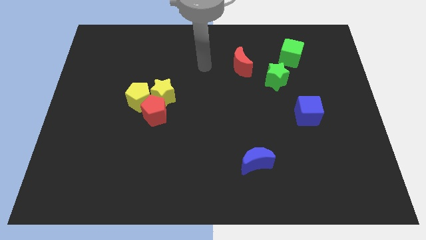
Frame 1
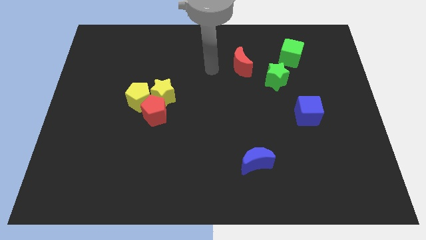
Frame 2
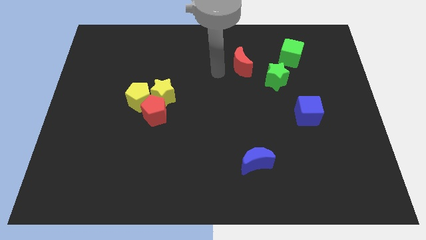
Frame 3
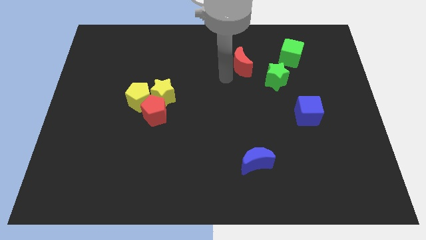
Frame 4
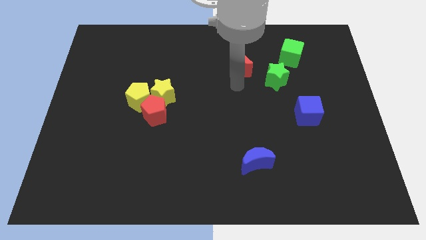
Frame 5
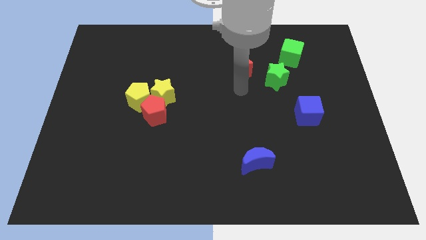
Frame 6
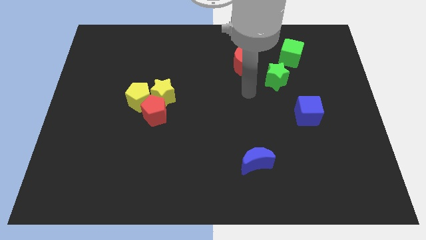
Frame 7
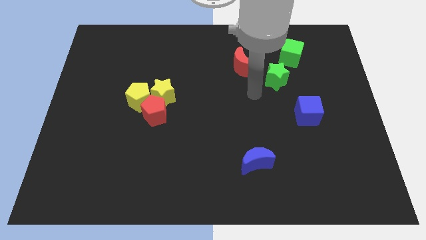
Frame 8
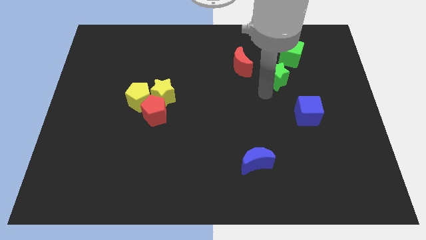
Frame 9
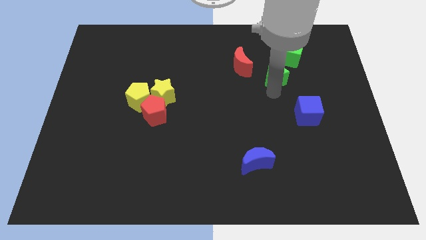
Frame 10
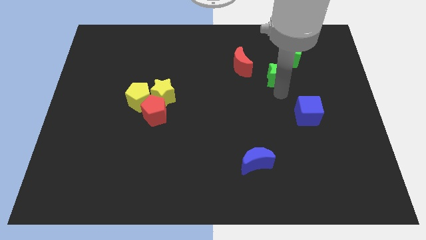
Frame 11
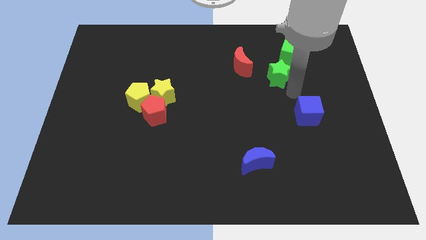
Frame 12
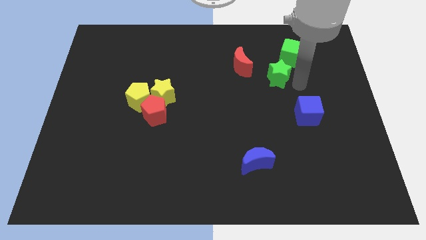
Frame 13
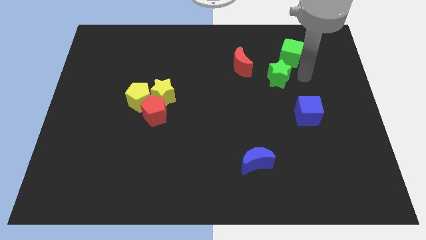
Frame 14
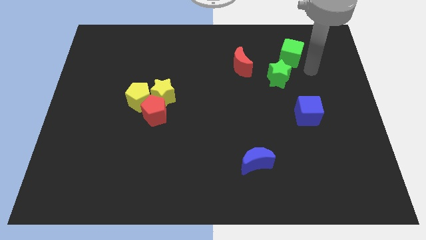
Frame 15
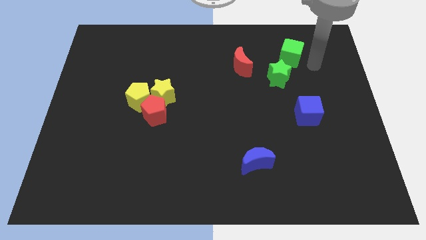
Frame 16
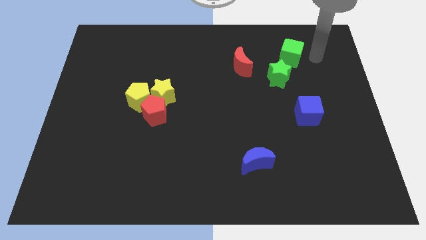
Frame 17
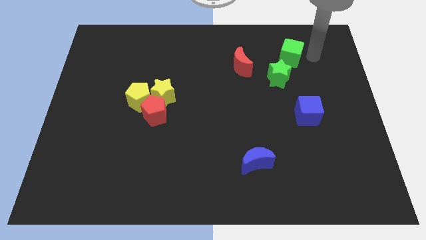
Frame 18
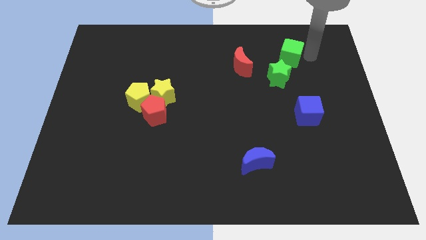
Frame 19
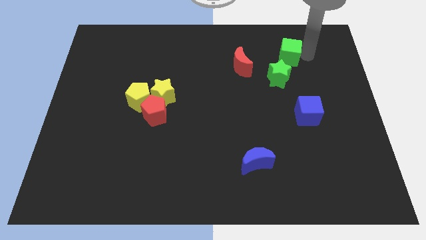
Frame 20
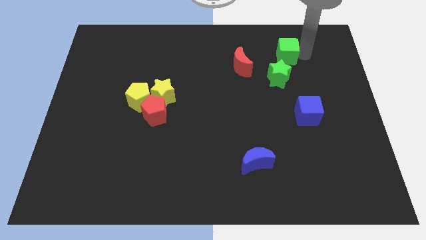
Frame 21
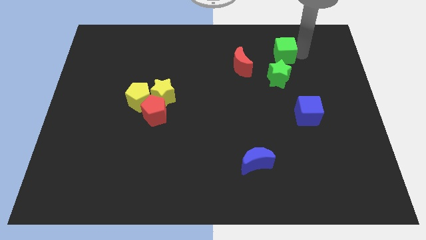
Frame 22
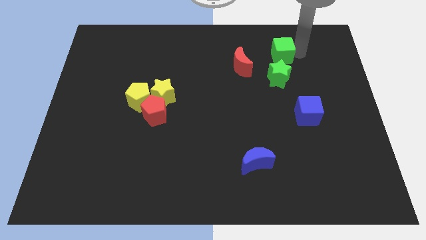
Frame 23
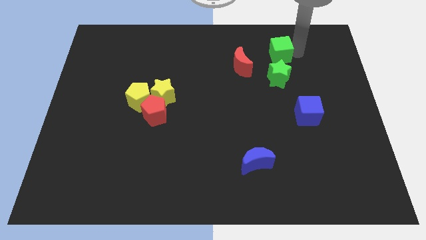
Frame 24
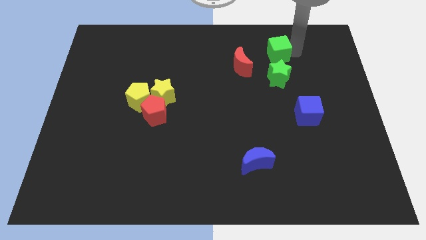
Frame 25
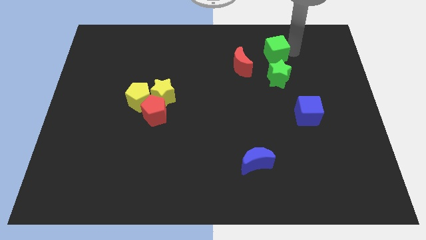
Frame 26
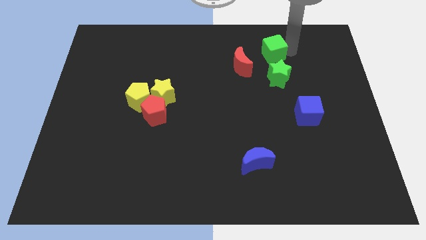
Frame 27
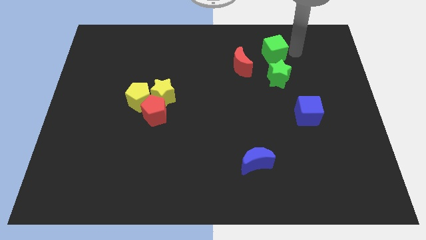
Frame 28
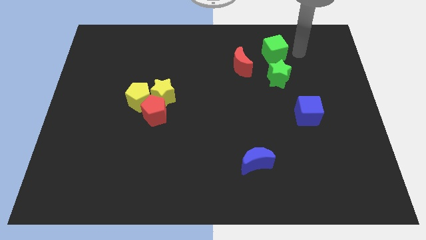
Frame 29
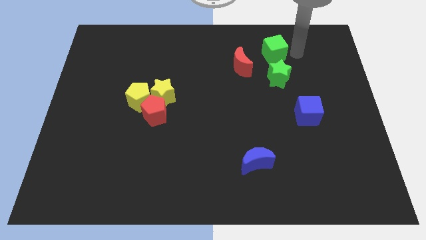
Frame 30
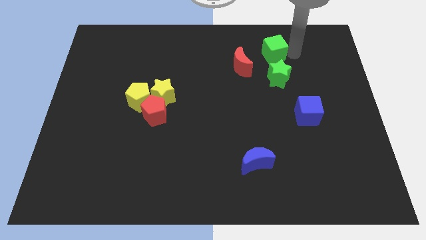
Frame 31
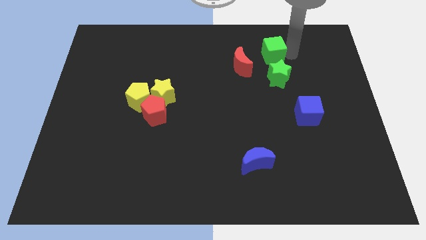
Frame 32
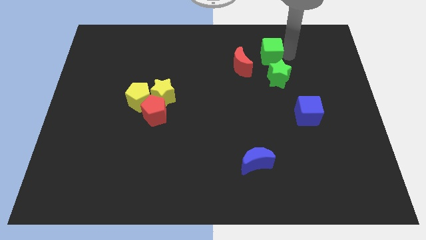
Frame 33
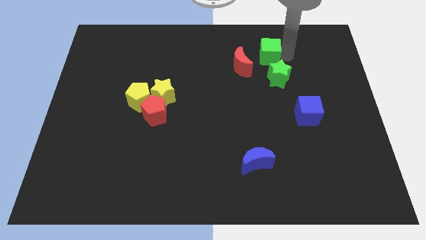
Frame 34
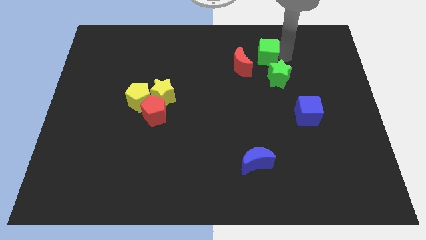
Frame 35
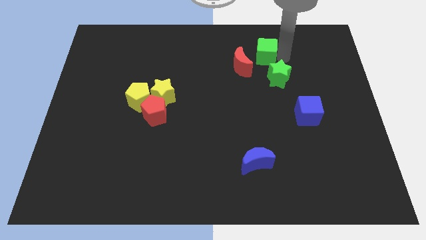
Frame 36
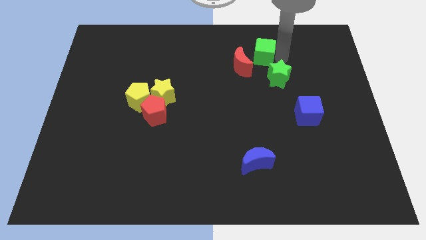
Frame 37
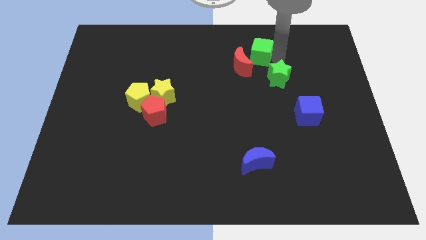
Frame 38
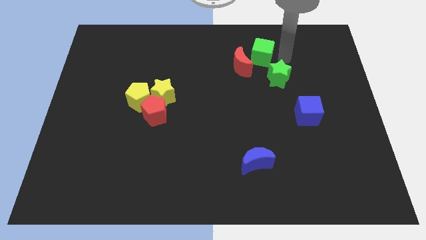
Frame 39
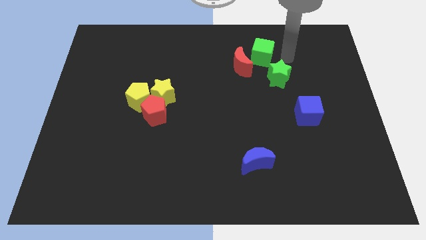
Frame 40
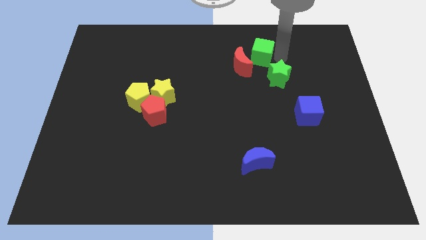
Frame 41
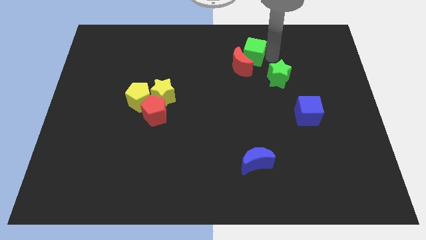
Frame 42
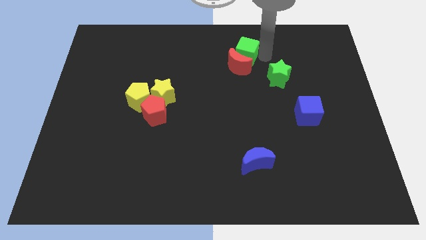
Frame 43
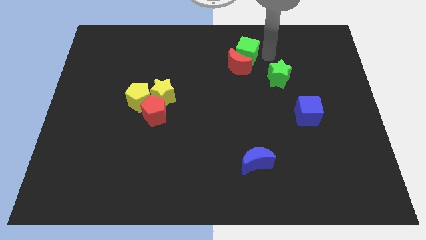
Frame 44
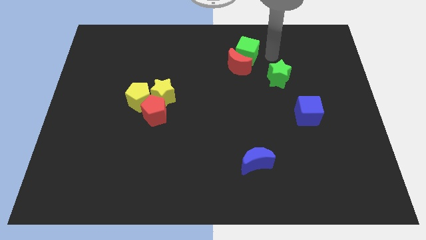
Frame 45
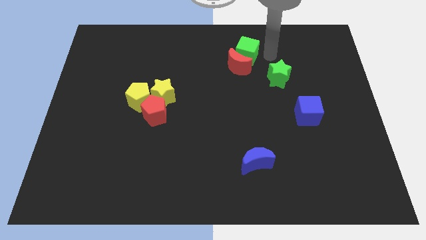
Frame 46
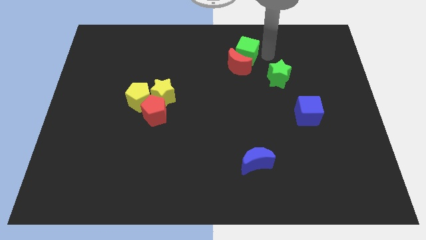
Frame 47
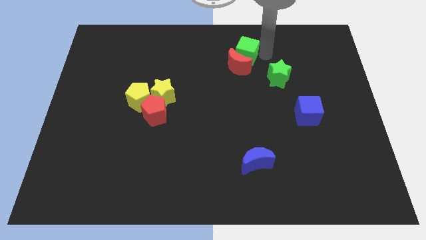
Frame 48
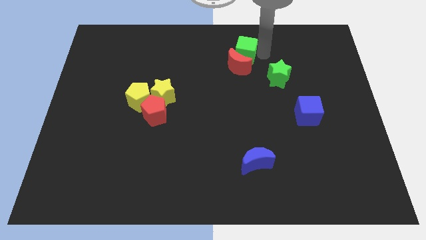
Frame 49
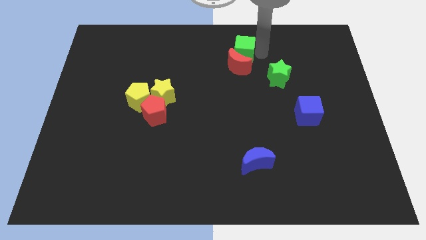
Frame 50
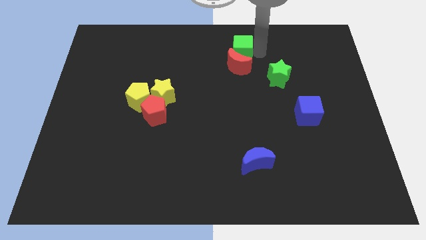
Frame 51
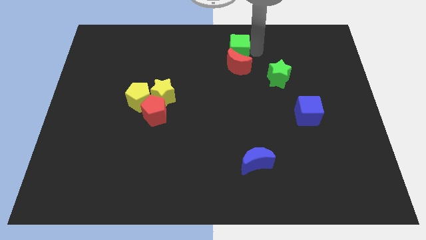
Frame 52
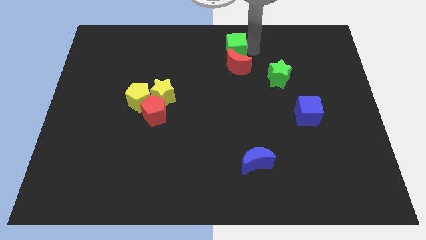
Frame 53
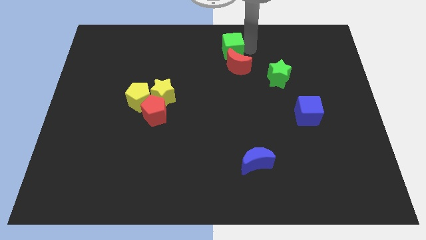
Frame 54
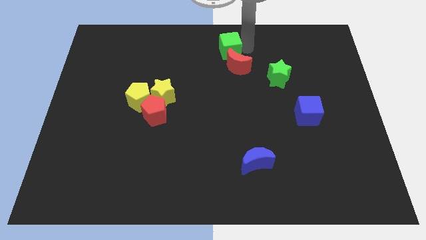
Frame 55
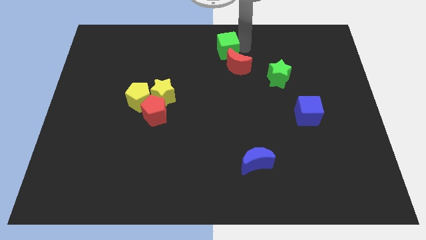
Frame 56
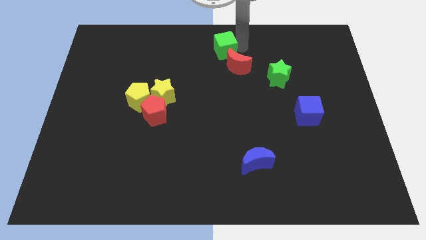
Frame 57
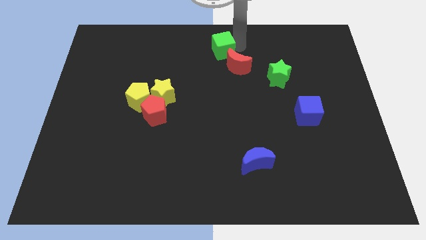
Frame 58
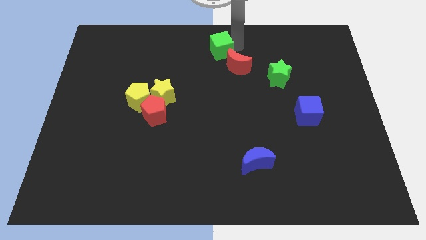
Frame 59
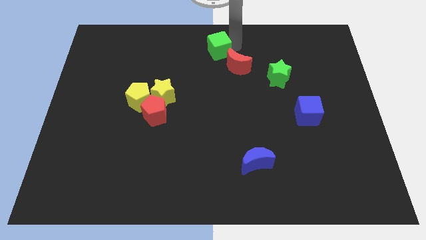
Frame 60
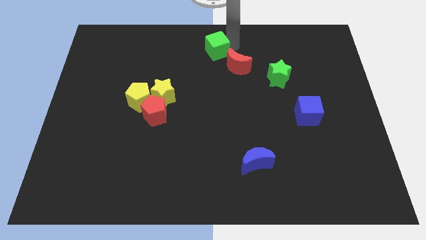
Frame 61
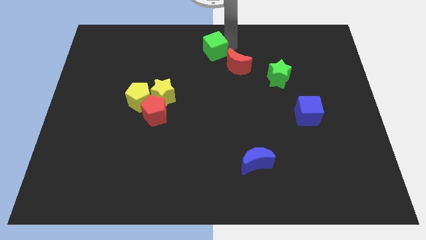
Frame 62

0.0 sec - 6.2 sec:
move the green cube to the left

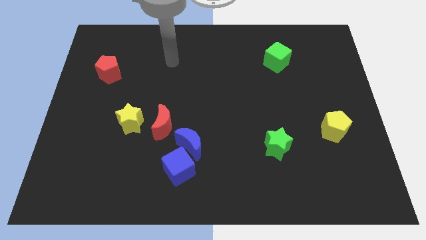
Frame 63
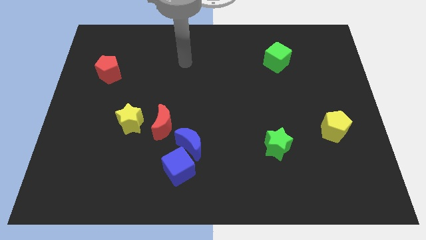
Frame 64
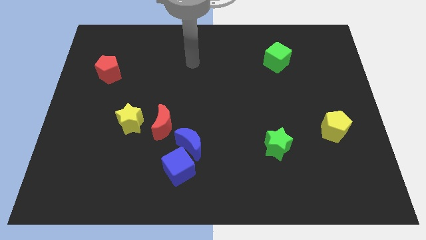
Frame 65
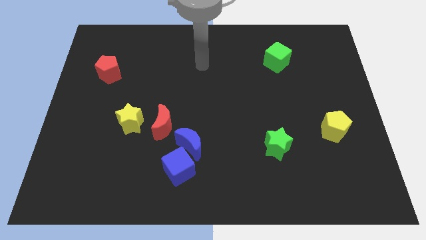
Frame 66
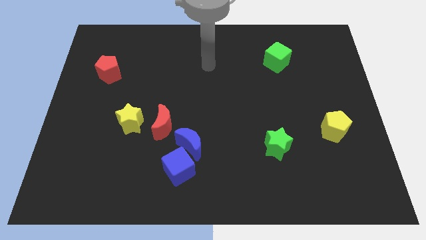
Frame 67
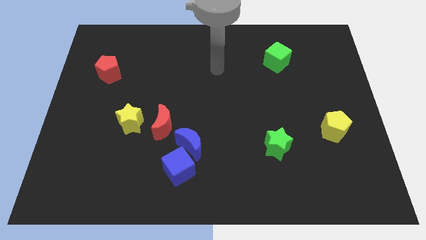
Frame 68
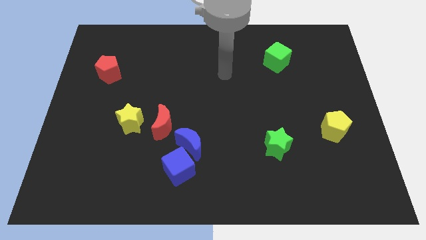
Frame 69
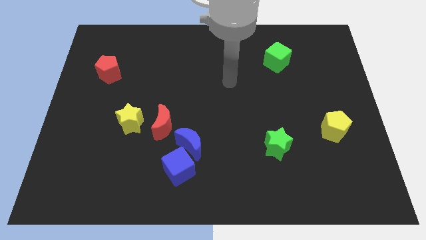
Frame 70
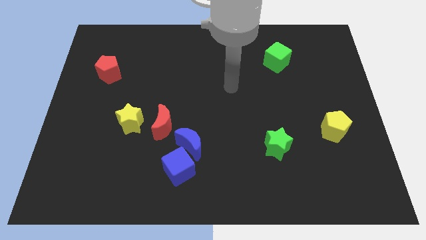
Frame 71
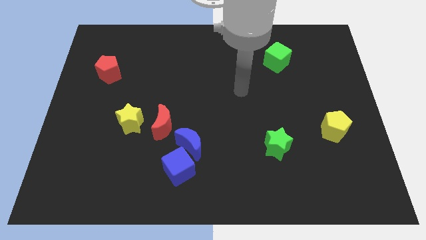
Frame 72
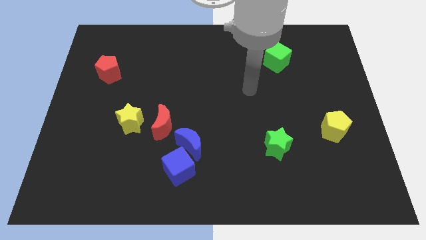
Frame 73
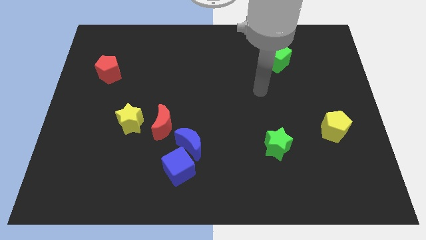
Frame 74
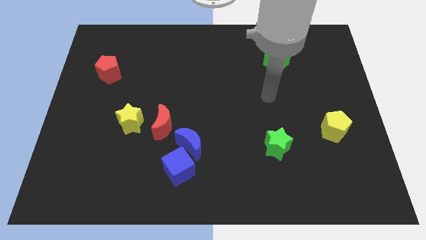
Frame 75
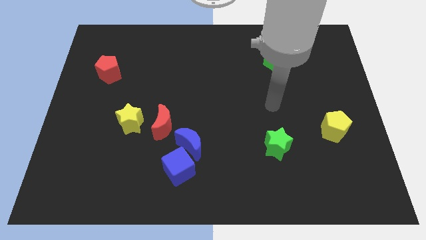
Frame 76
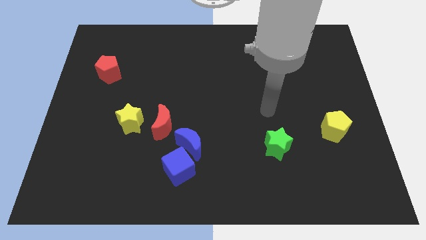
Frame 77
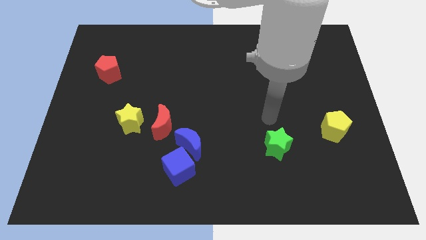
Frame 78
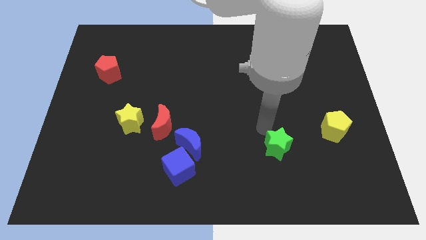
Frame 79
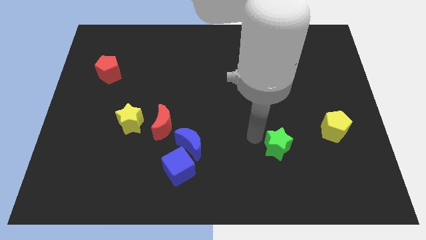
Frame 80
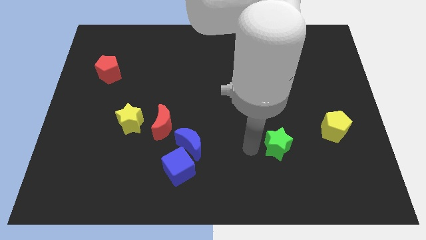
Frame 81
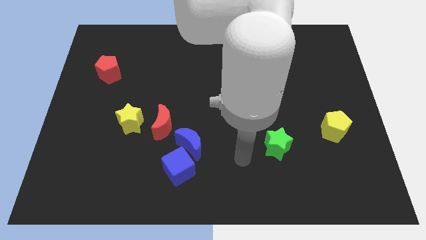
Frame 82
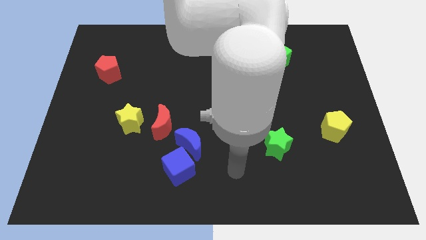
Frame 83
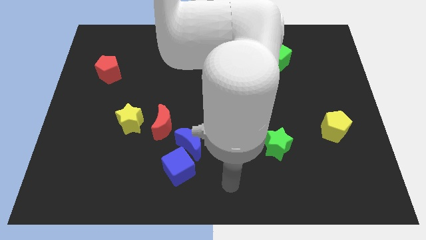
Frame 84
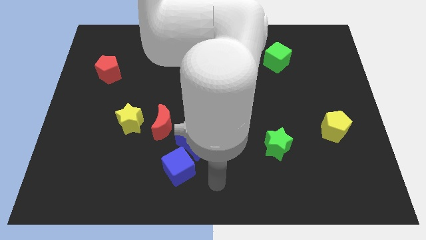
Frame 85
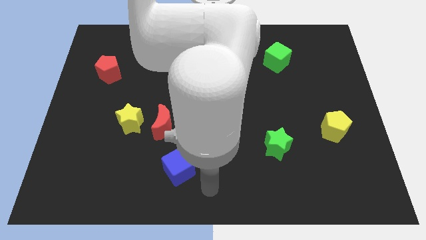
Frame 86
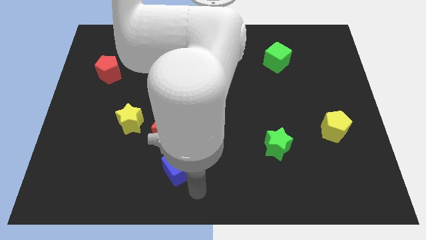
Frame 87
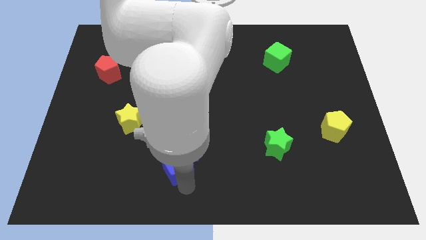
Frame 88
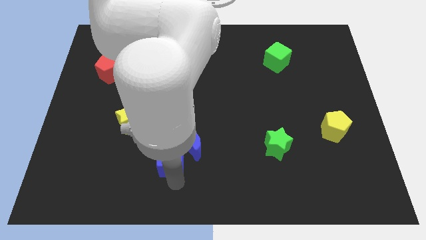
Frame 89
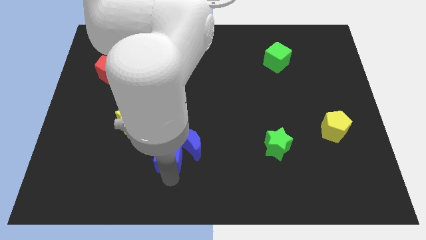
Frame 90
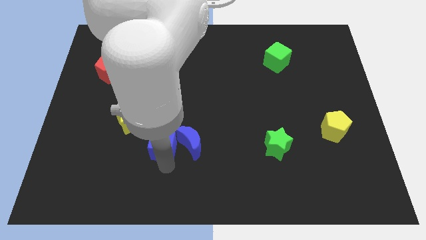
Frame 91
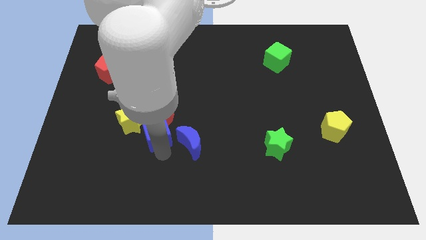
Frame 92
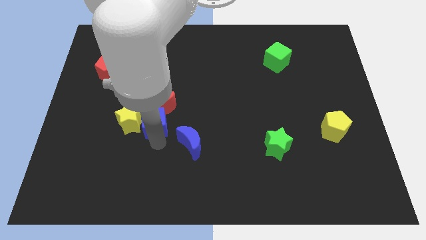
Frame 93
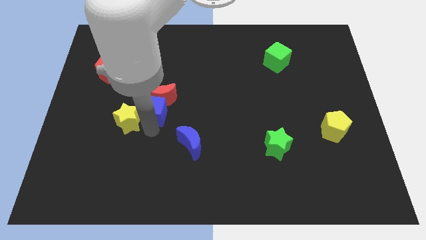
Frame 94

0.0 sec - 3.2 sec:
slightly slide the red moon up
